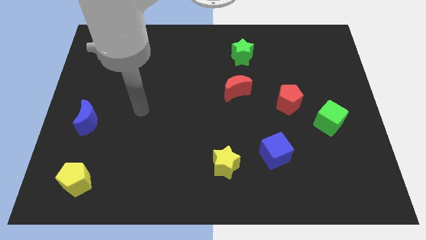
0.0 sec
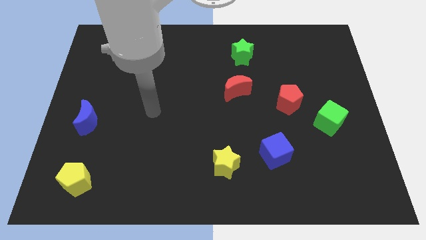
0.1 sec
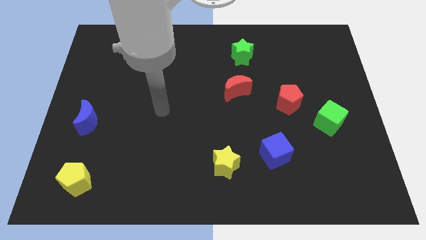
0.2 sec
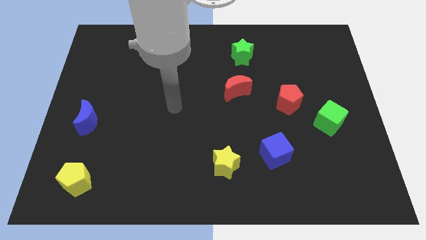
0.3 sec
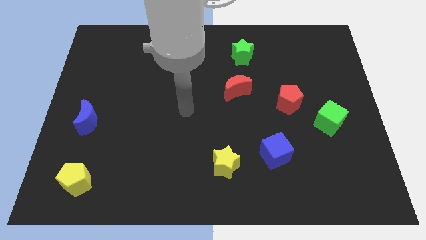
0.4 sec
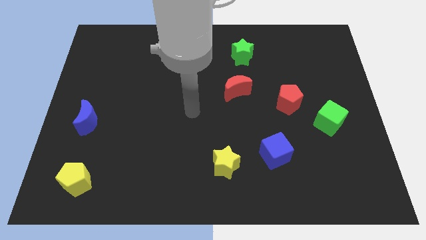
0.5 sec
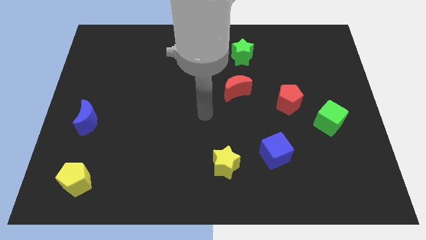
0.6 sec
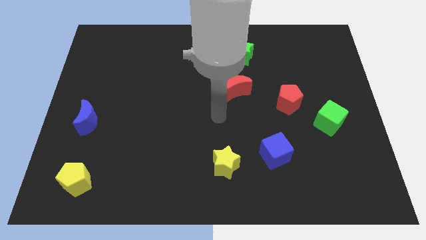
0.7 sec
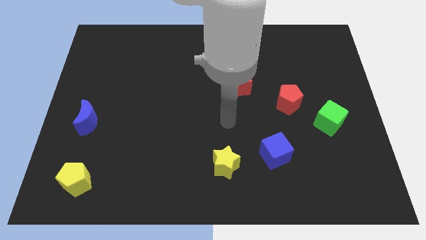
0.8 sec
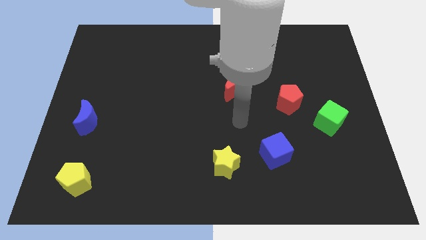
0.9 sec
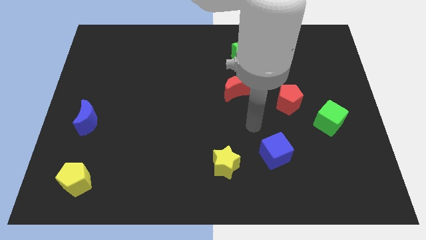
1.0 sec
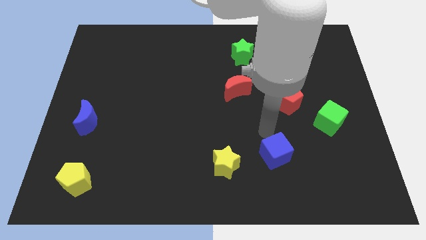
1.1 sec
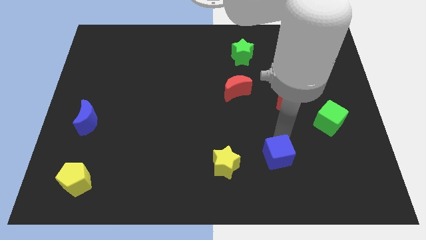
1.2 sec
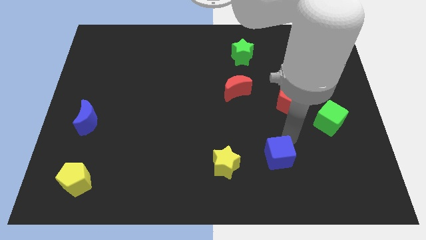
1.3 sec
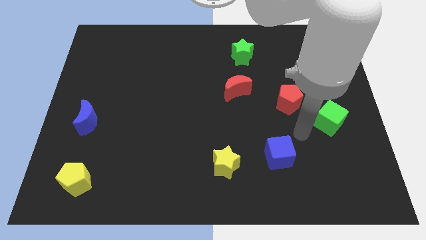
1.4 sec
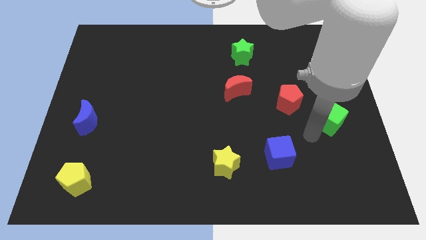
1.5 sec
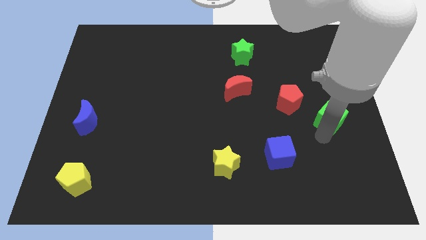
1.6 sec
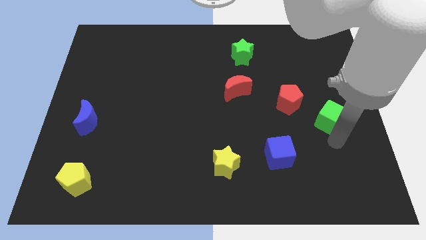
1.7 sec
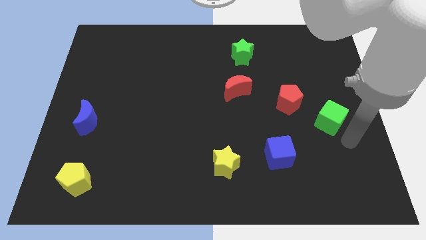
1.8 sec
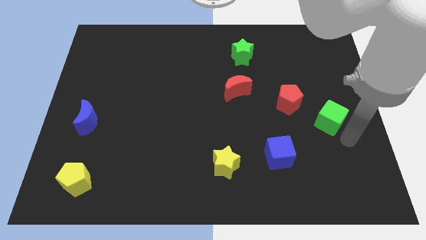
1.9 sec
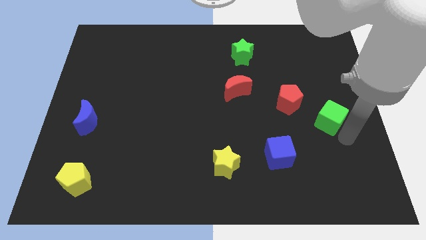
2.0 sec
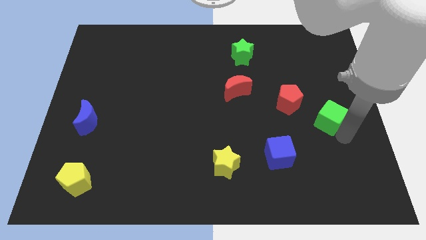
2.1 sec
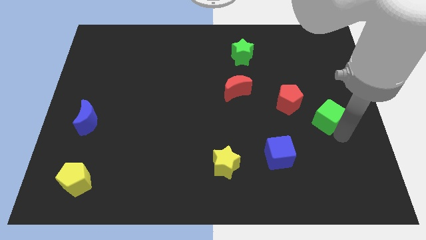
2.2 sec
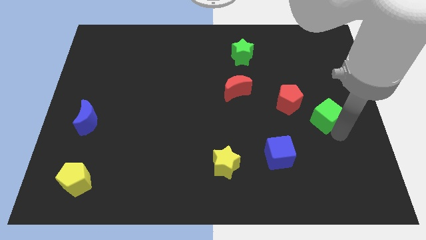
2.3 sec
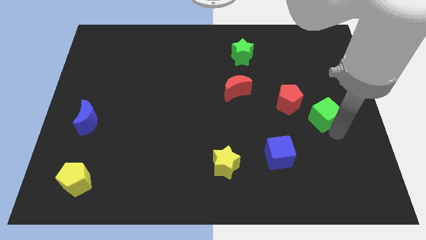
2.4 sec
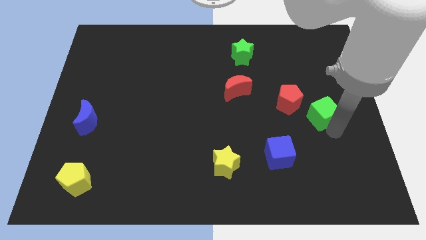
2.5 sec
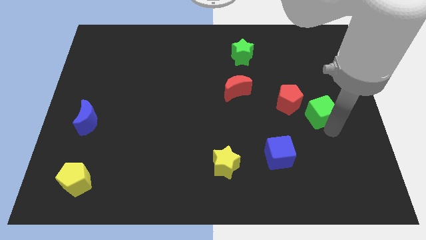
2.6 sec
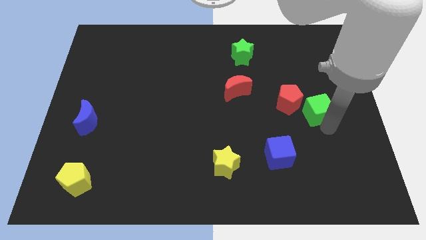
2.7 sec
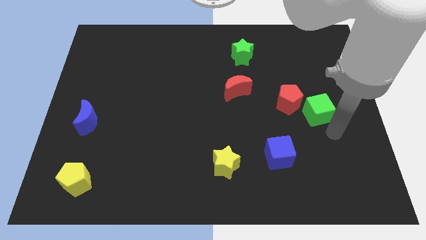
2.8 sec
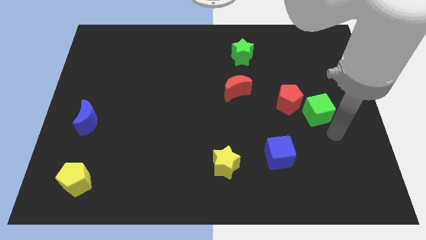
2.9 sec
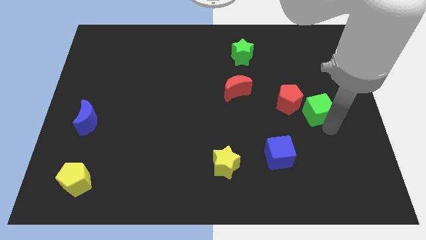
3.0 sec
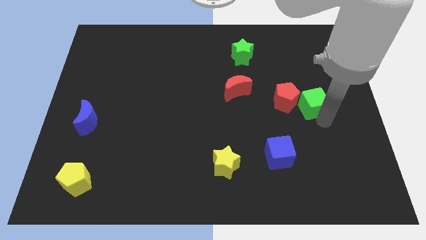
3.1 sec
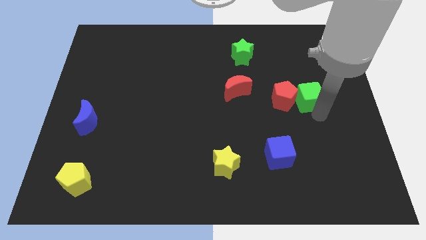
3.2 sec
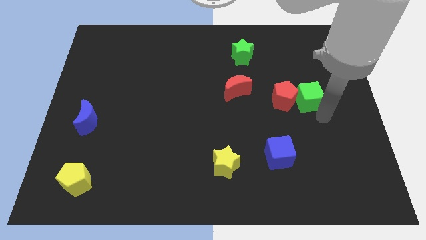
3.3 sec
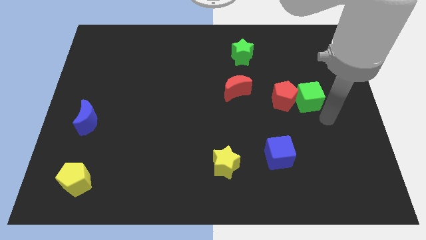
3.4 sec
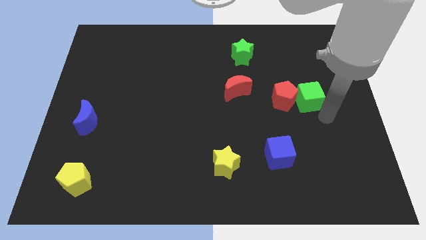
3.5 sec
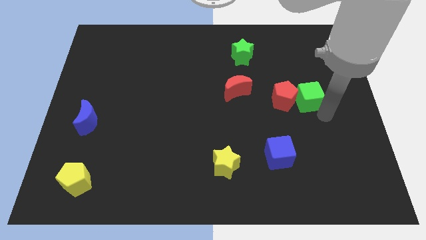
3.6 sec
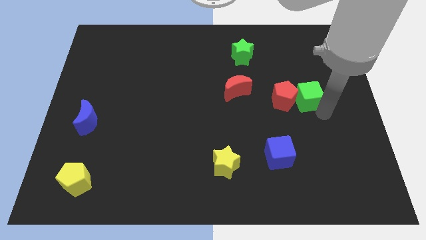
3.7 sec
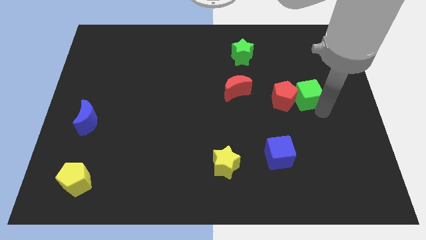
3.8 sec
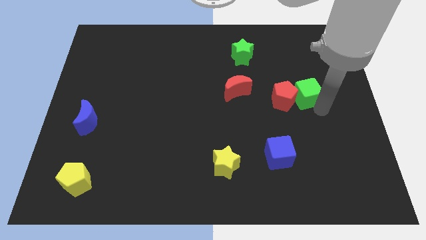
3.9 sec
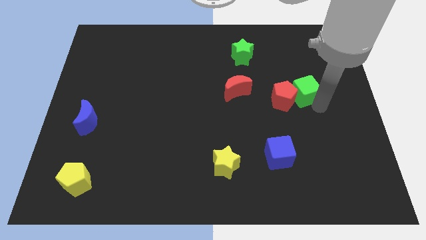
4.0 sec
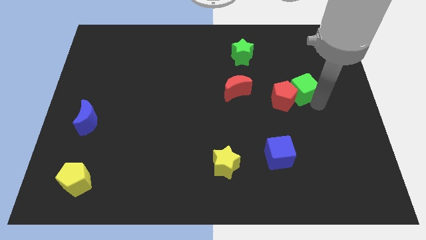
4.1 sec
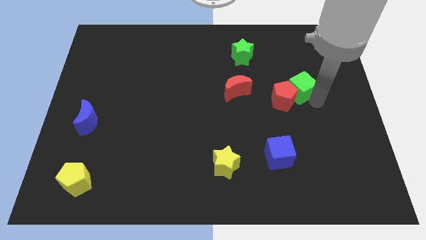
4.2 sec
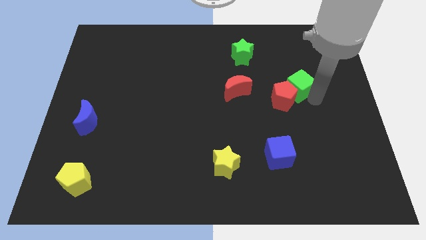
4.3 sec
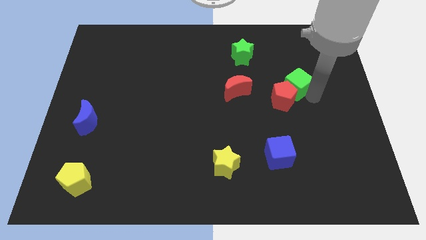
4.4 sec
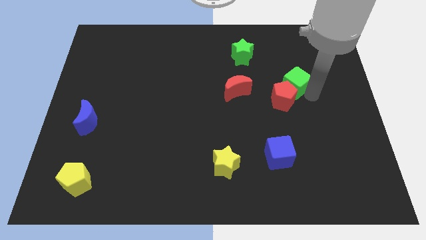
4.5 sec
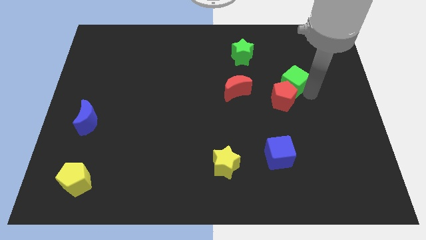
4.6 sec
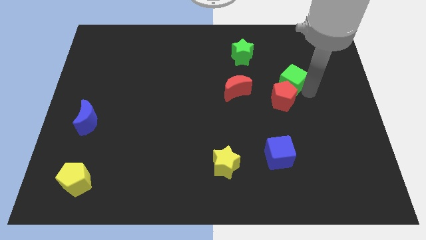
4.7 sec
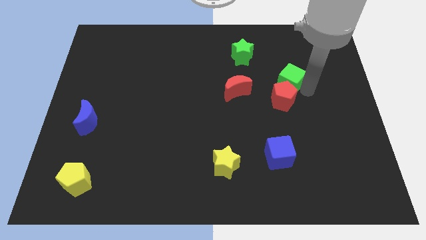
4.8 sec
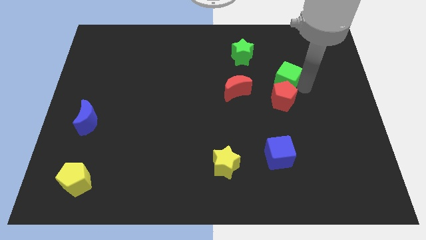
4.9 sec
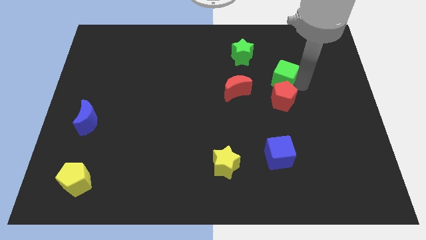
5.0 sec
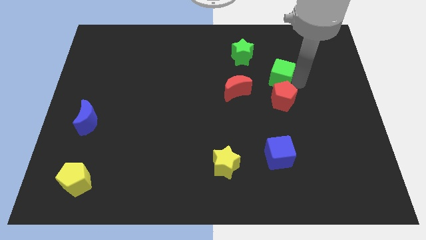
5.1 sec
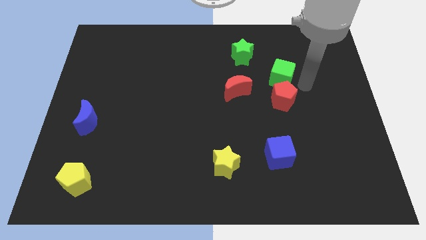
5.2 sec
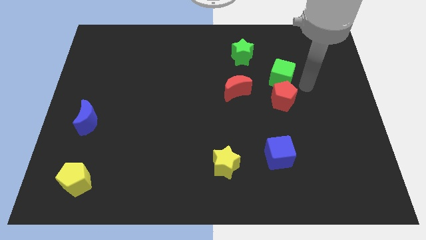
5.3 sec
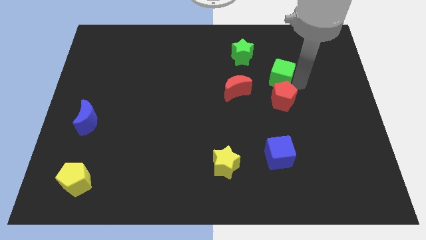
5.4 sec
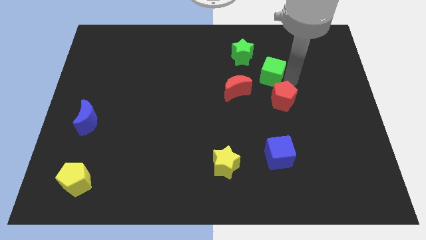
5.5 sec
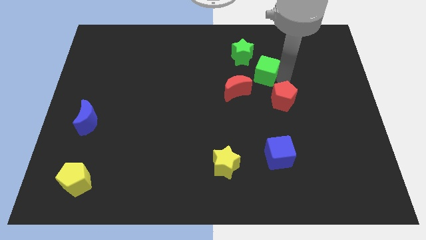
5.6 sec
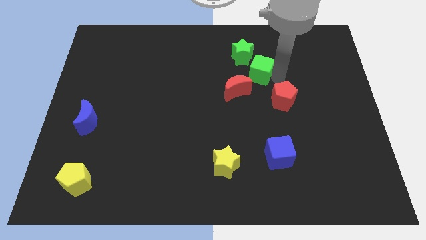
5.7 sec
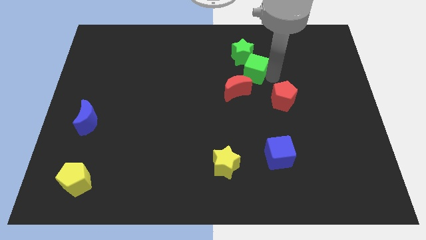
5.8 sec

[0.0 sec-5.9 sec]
slide the green cube to the green star

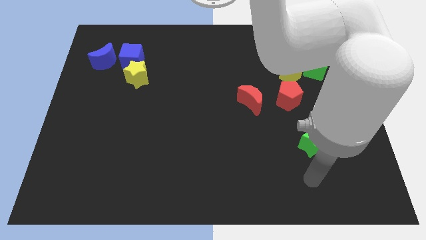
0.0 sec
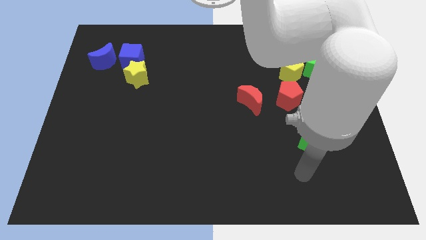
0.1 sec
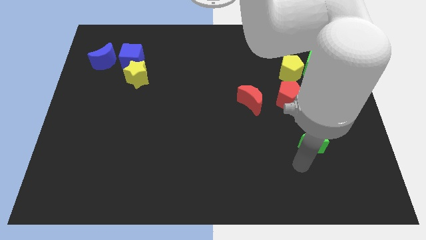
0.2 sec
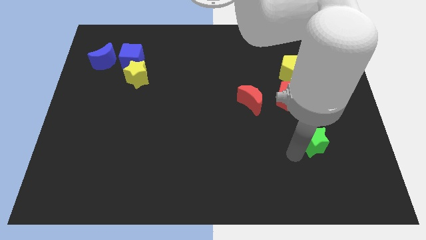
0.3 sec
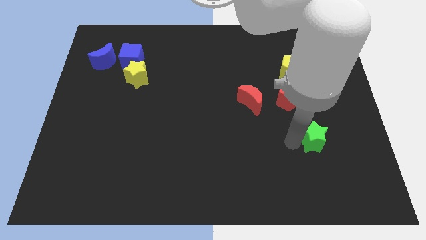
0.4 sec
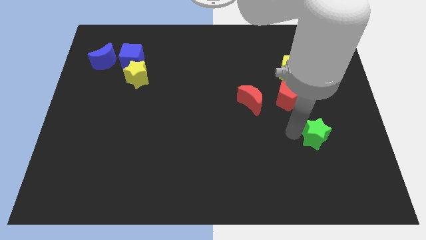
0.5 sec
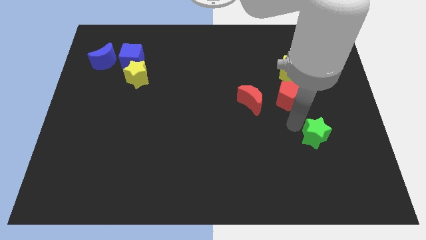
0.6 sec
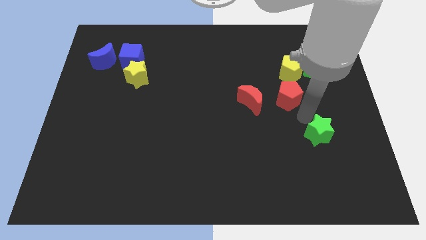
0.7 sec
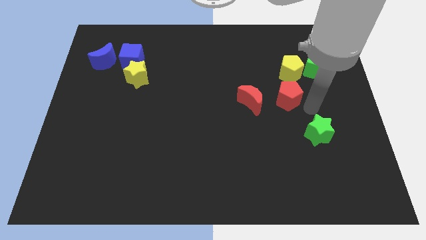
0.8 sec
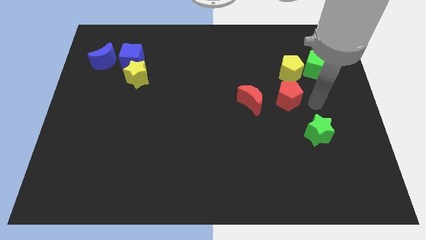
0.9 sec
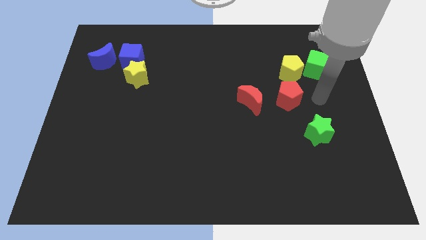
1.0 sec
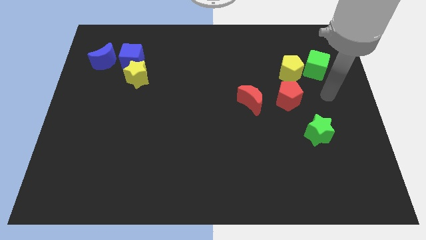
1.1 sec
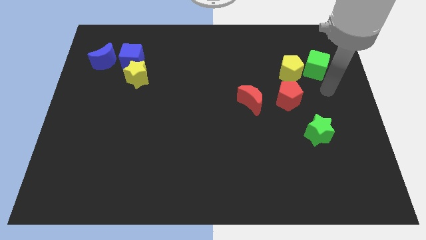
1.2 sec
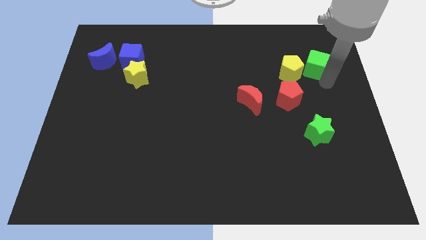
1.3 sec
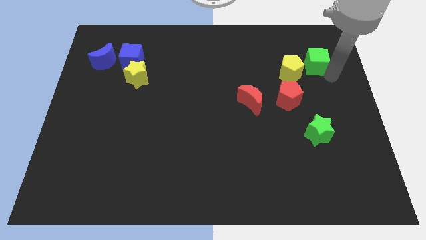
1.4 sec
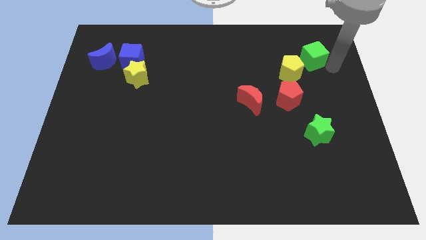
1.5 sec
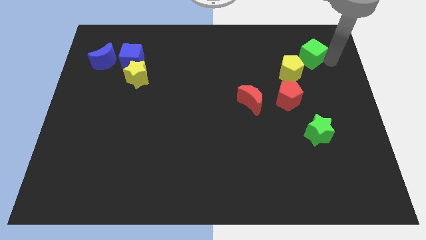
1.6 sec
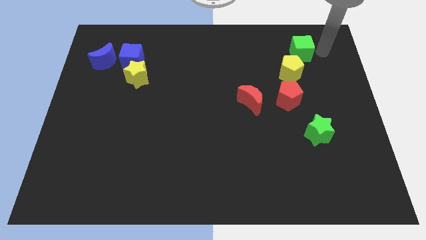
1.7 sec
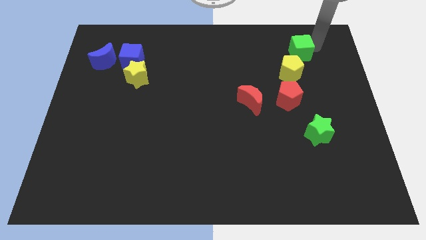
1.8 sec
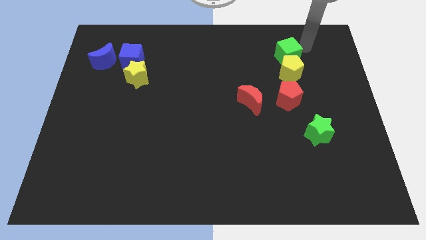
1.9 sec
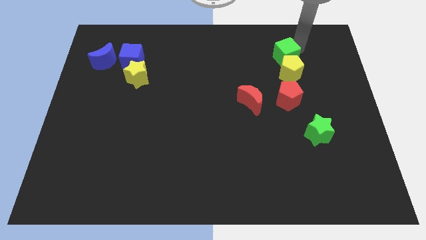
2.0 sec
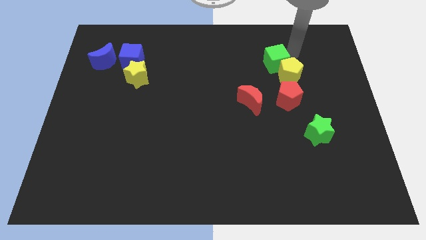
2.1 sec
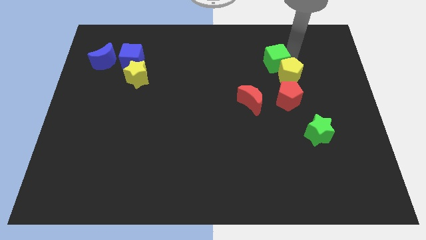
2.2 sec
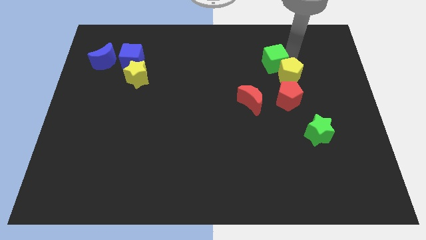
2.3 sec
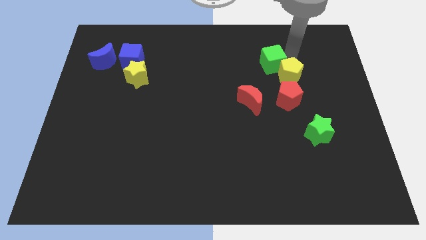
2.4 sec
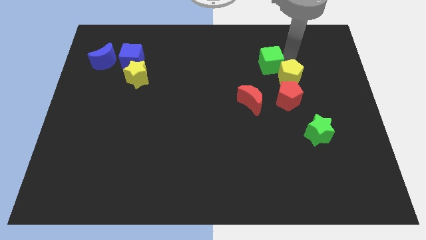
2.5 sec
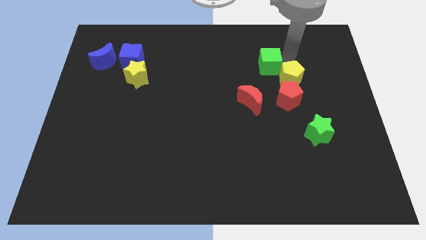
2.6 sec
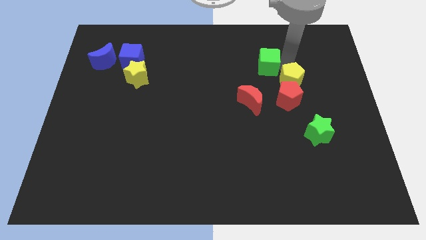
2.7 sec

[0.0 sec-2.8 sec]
push the yellow pentagon next to the red pentagon
